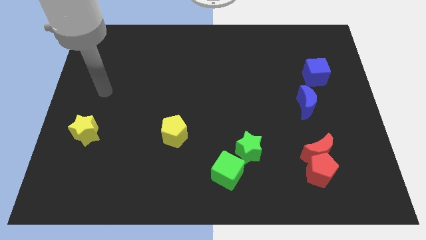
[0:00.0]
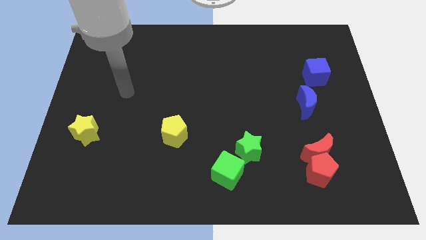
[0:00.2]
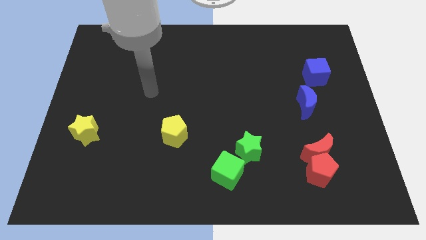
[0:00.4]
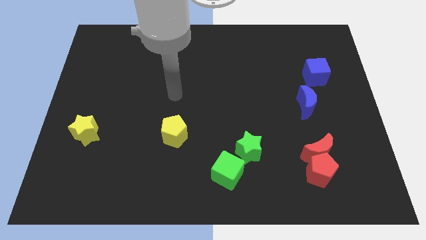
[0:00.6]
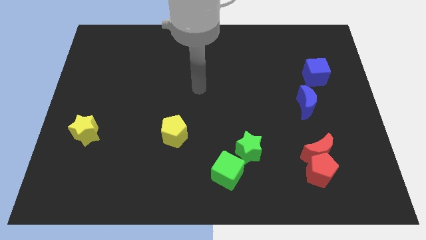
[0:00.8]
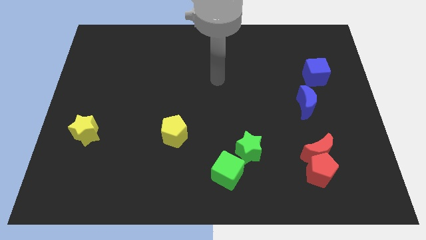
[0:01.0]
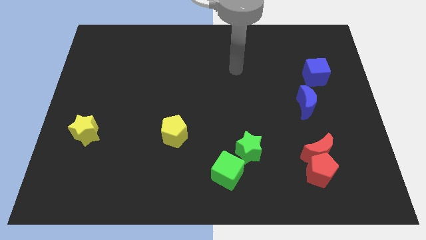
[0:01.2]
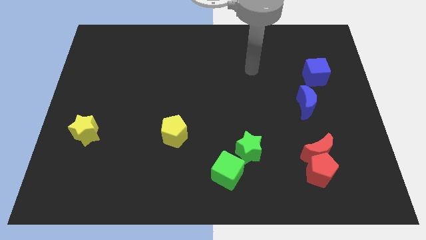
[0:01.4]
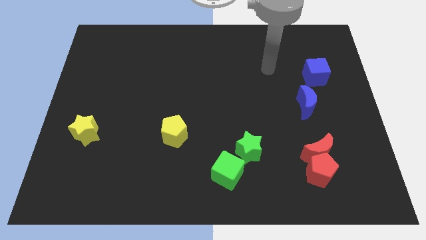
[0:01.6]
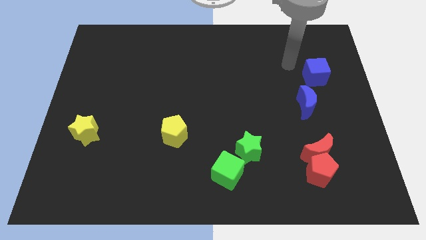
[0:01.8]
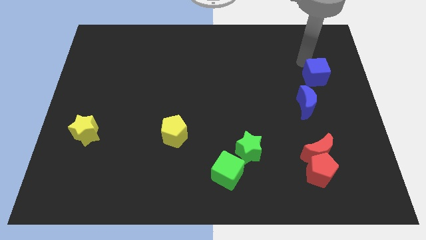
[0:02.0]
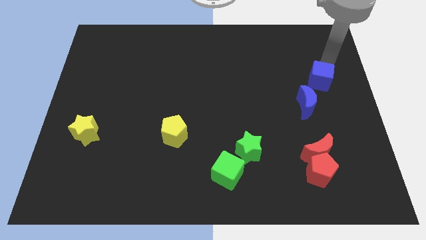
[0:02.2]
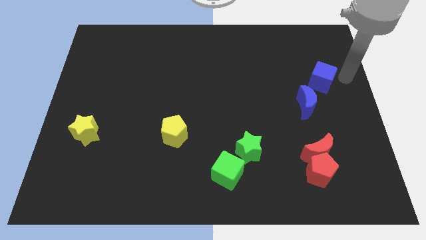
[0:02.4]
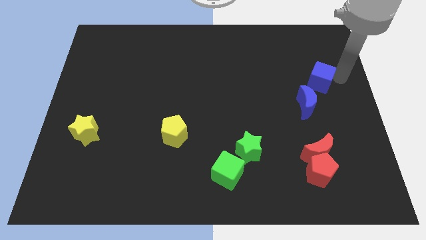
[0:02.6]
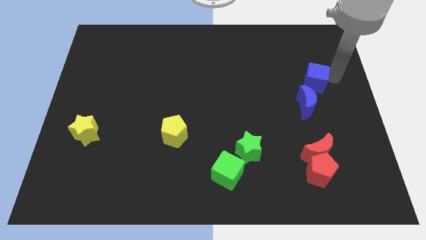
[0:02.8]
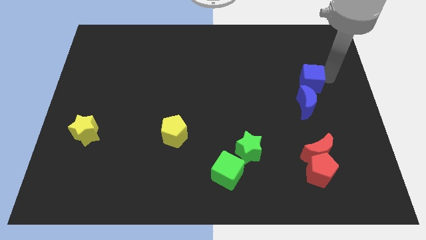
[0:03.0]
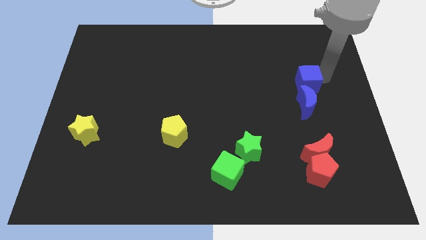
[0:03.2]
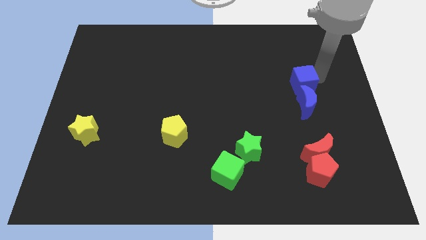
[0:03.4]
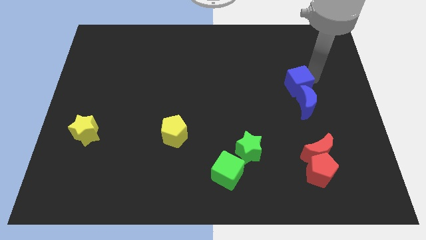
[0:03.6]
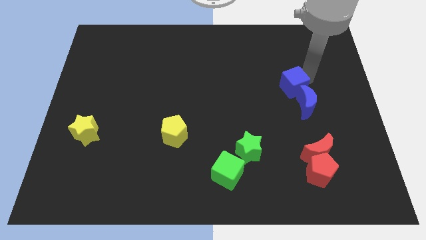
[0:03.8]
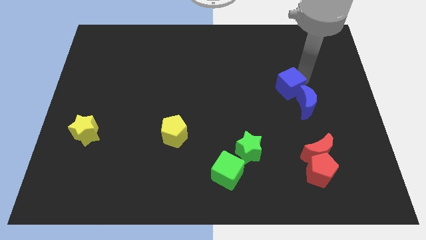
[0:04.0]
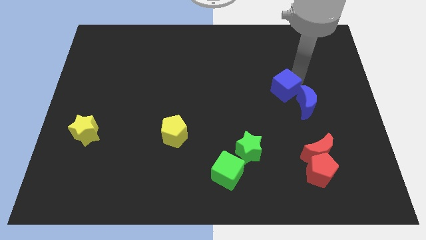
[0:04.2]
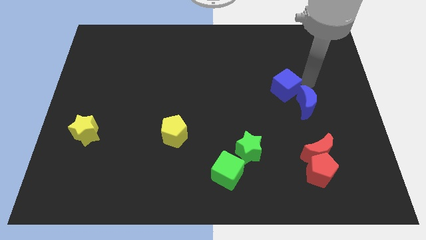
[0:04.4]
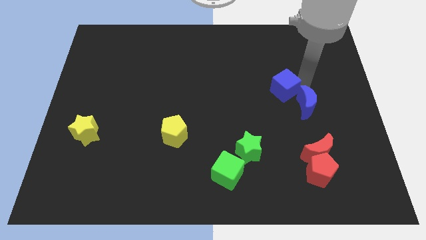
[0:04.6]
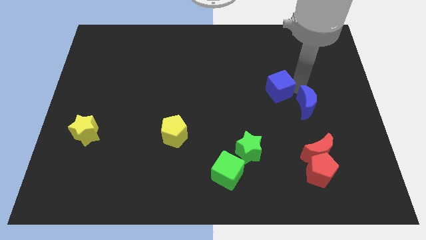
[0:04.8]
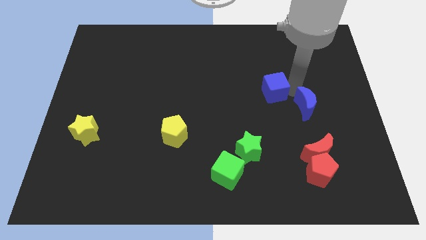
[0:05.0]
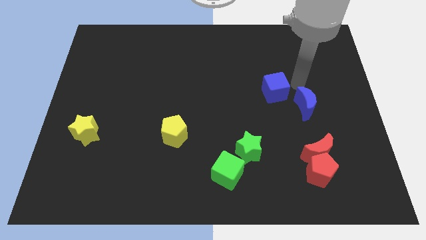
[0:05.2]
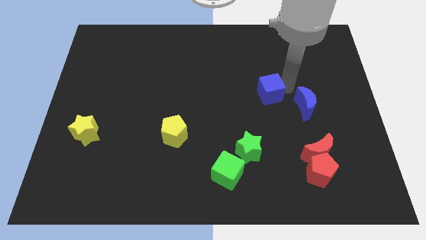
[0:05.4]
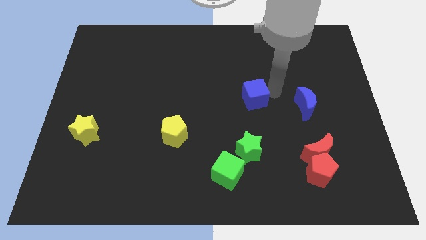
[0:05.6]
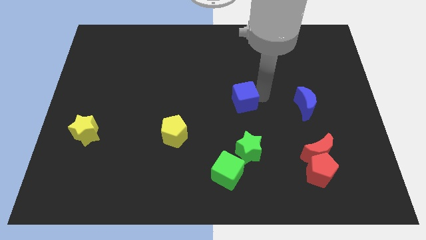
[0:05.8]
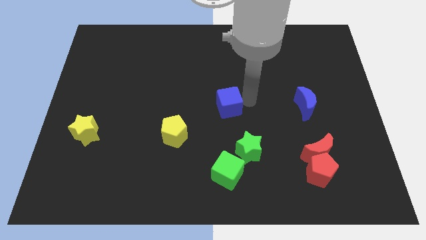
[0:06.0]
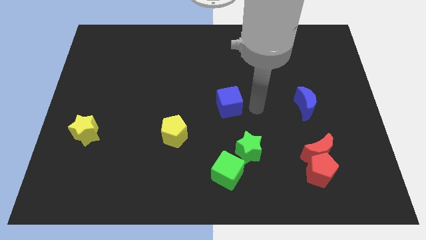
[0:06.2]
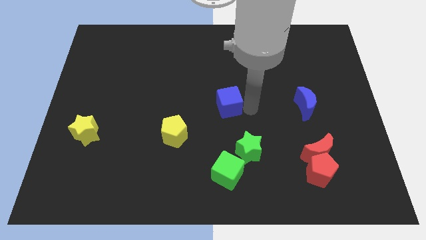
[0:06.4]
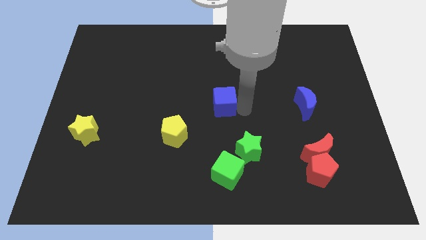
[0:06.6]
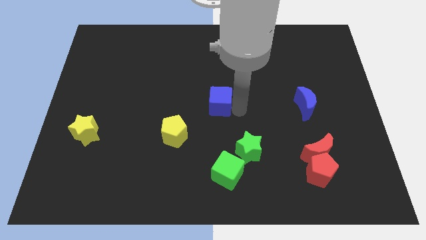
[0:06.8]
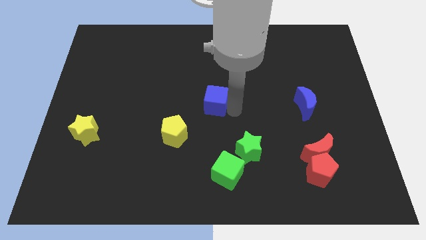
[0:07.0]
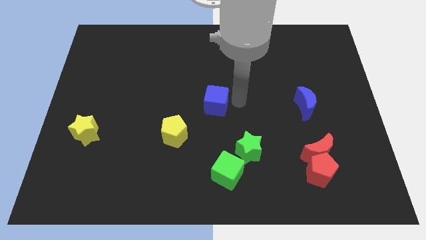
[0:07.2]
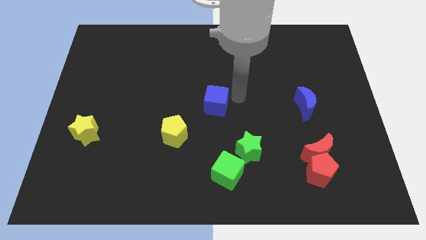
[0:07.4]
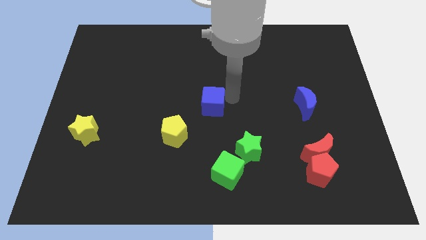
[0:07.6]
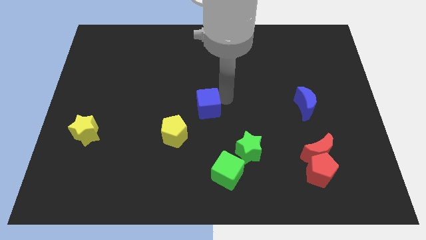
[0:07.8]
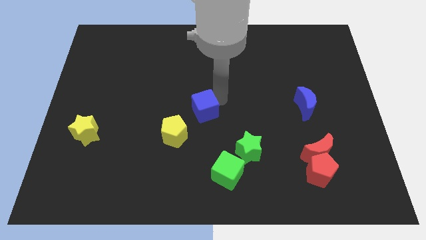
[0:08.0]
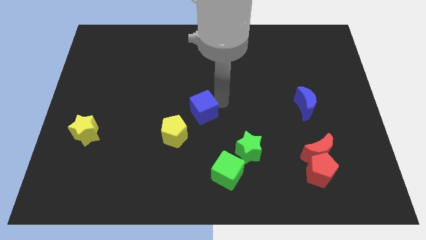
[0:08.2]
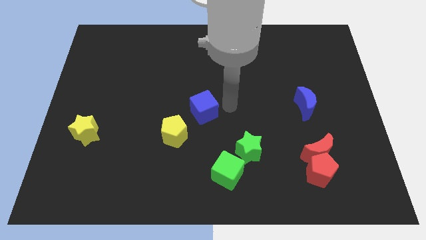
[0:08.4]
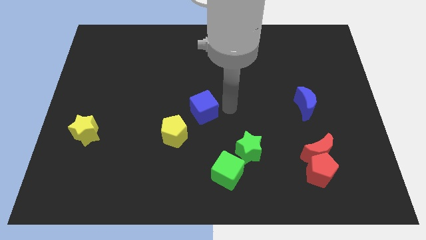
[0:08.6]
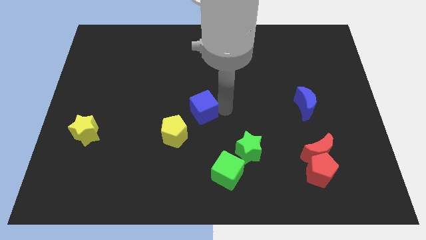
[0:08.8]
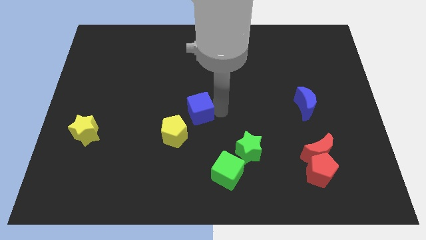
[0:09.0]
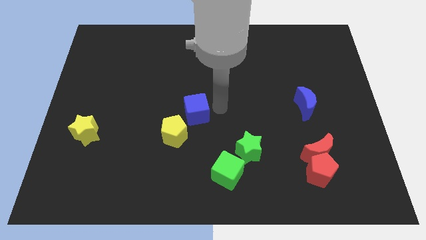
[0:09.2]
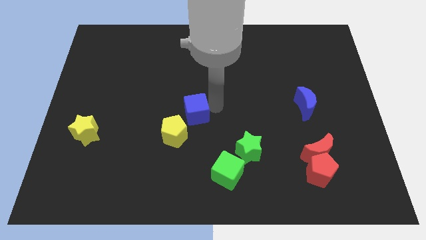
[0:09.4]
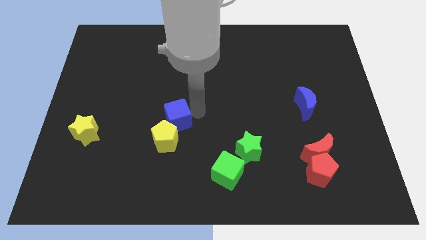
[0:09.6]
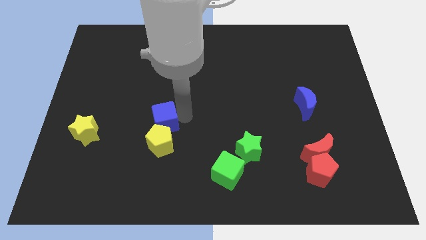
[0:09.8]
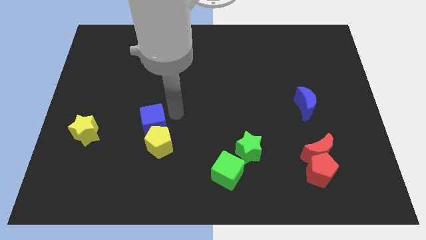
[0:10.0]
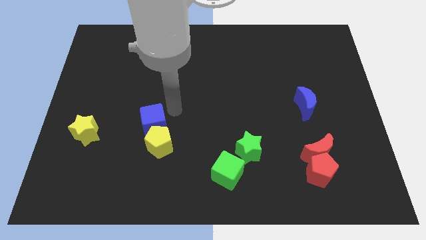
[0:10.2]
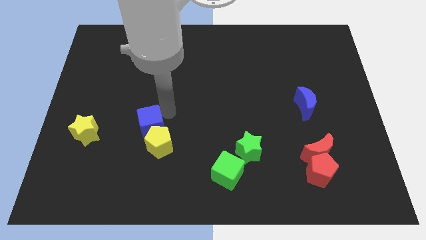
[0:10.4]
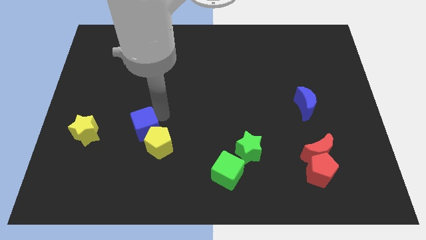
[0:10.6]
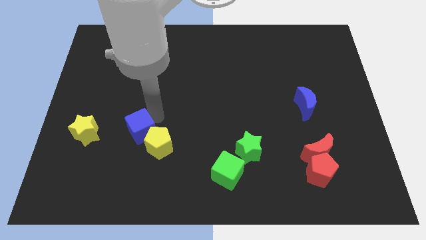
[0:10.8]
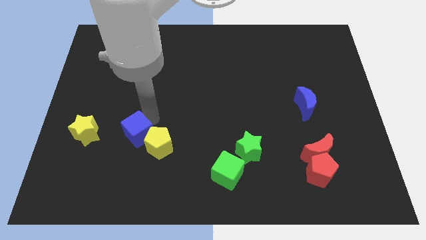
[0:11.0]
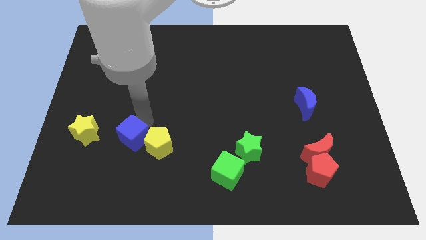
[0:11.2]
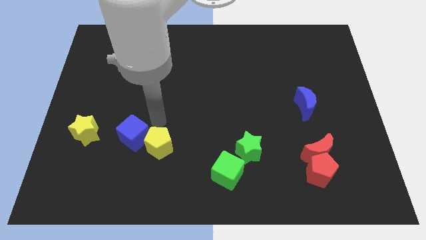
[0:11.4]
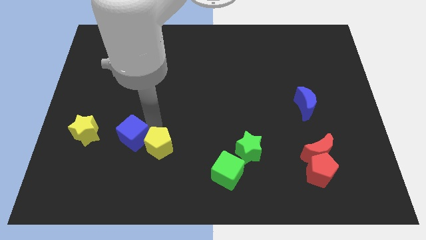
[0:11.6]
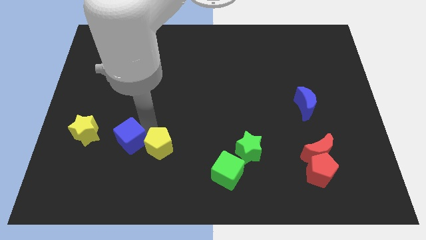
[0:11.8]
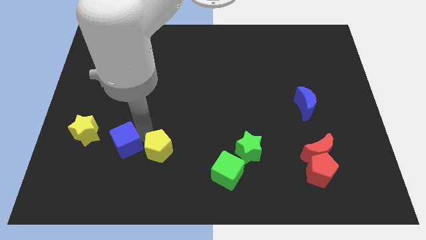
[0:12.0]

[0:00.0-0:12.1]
push the blue cube diagonally down and to the right of the yellow star

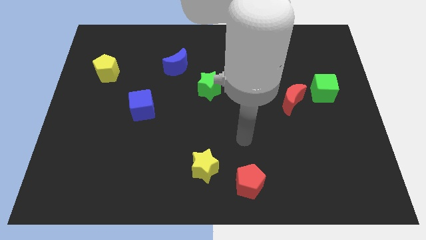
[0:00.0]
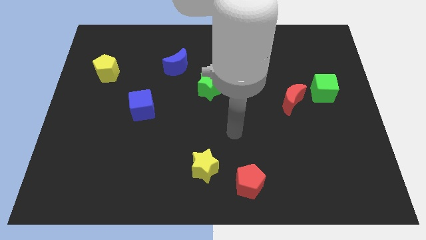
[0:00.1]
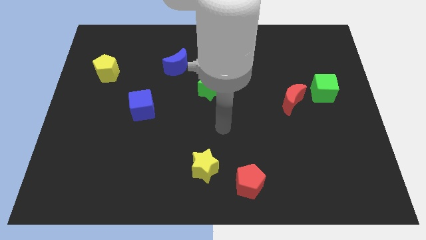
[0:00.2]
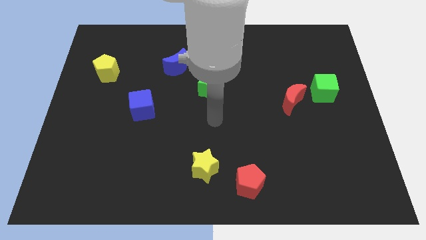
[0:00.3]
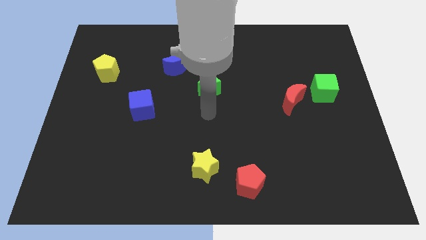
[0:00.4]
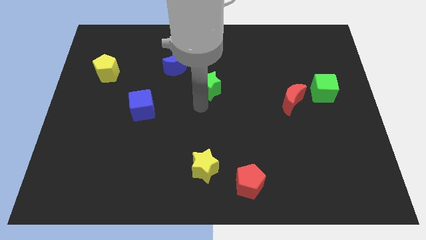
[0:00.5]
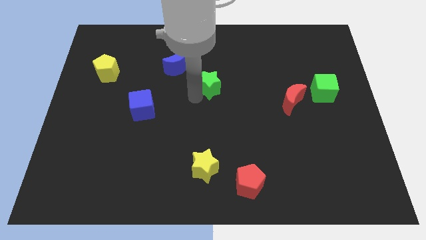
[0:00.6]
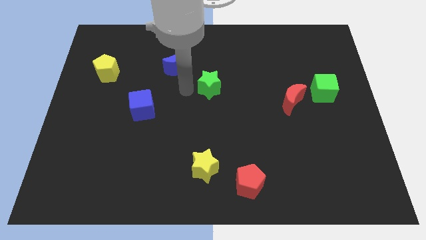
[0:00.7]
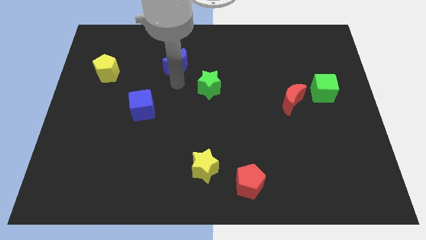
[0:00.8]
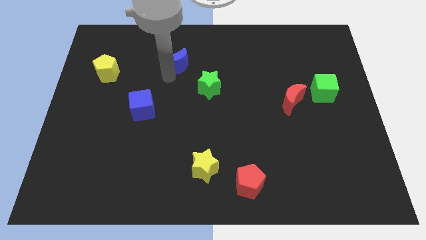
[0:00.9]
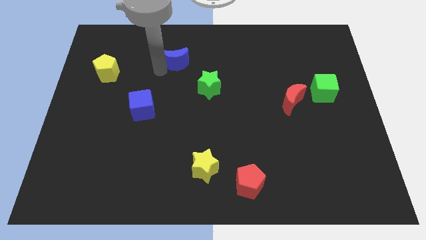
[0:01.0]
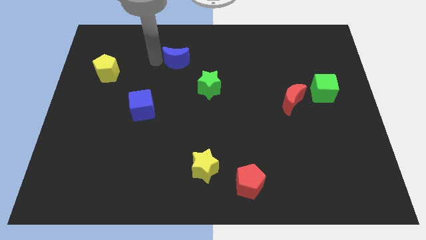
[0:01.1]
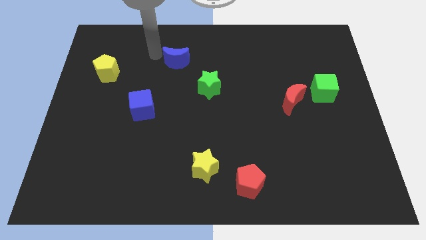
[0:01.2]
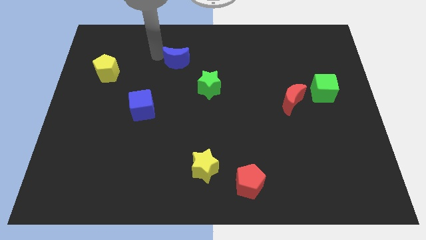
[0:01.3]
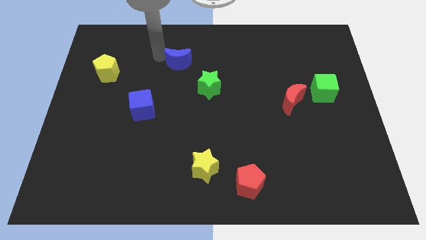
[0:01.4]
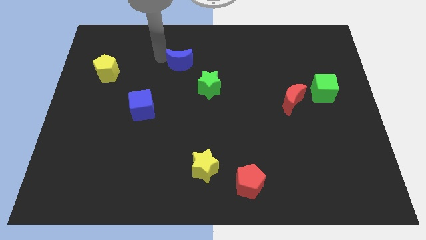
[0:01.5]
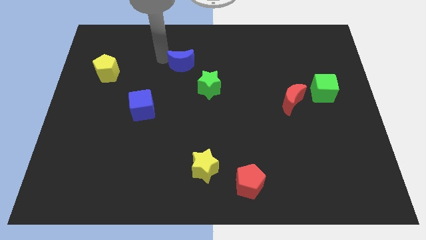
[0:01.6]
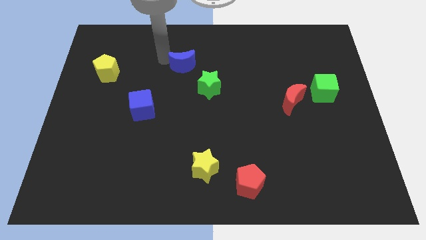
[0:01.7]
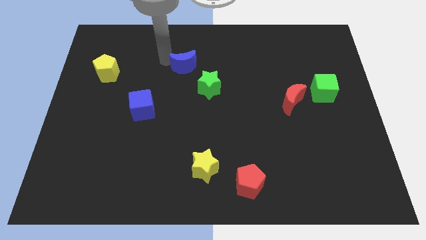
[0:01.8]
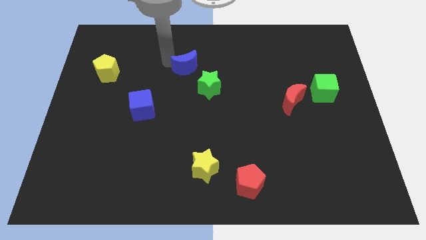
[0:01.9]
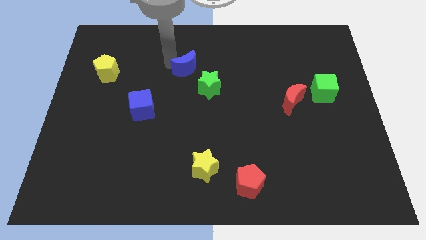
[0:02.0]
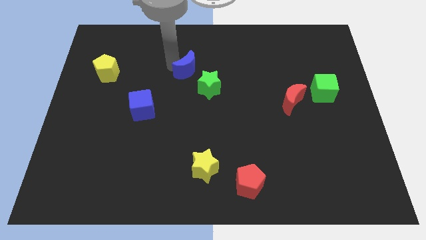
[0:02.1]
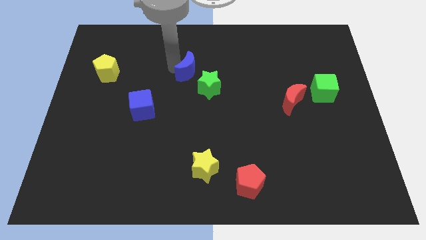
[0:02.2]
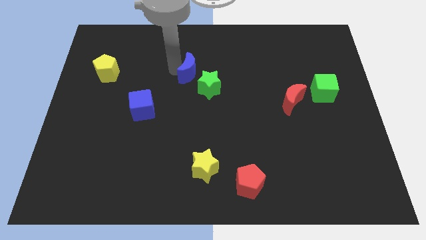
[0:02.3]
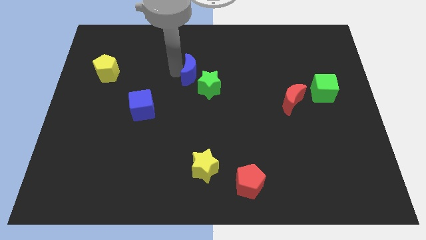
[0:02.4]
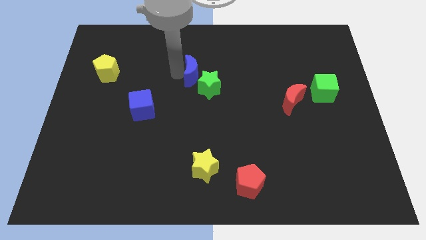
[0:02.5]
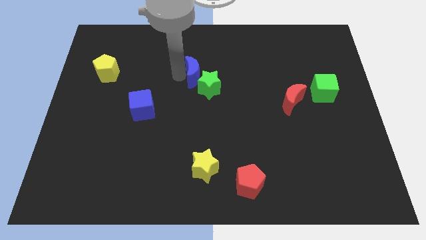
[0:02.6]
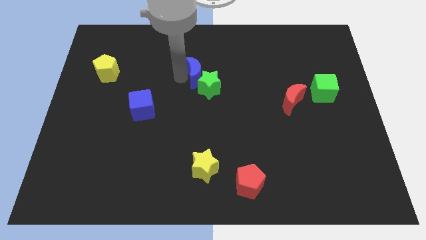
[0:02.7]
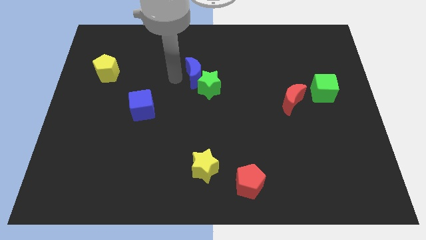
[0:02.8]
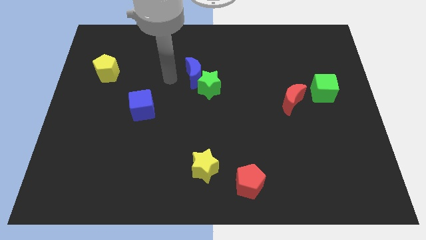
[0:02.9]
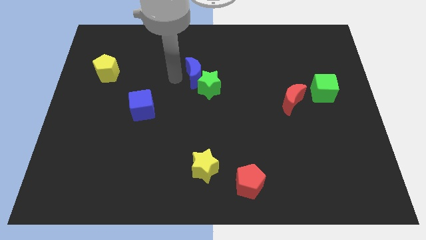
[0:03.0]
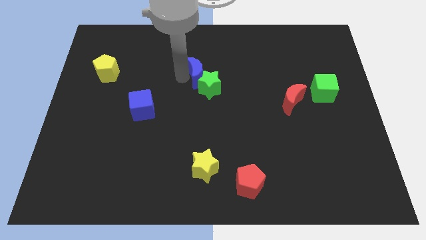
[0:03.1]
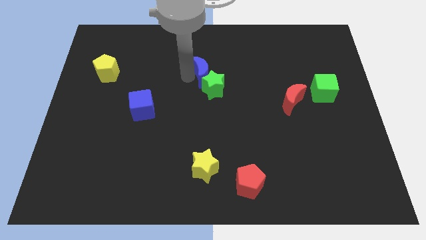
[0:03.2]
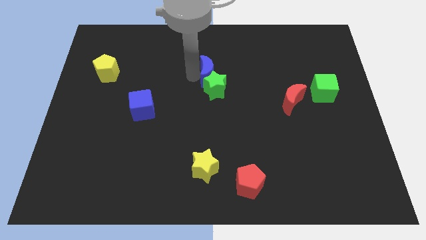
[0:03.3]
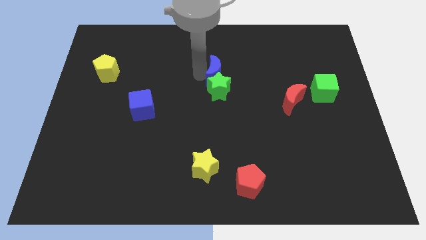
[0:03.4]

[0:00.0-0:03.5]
push the blue moon to the top right side of the green star
